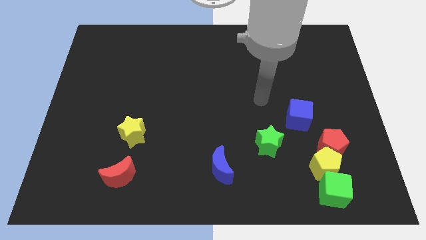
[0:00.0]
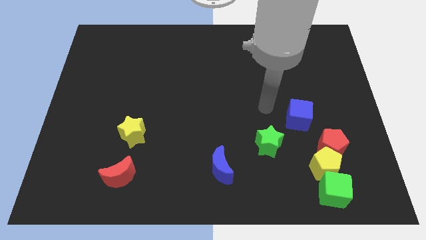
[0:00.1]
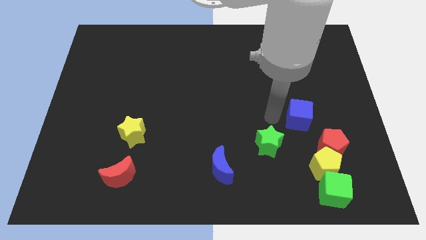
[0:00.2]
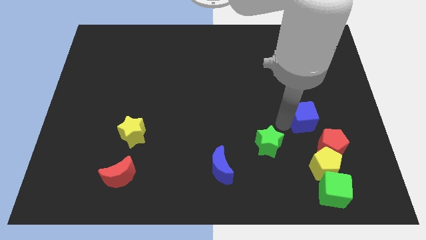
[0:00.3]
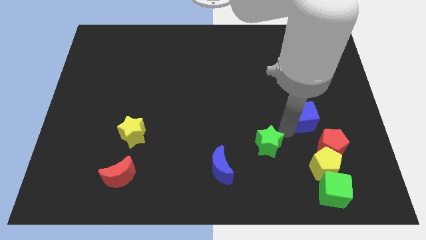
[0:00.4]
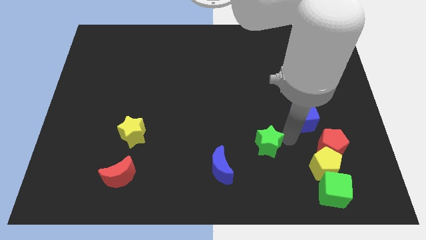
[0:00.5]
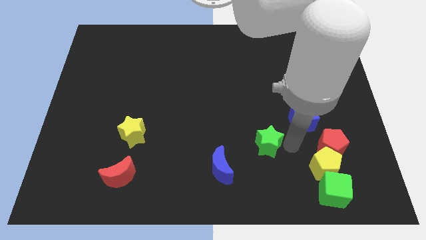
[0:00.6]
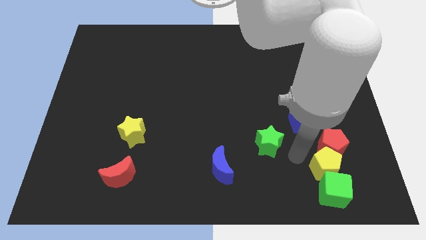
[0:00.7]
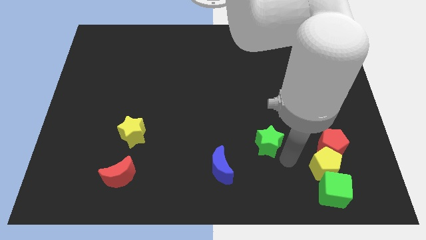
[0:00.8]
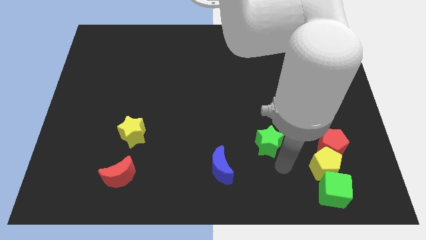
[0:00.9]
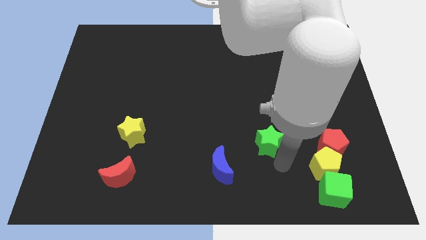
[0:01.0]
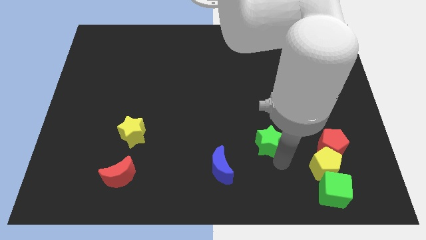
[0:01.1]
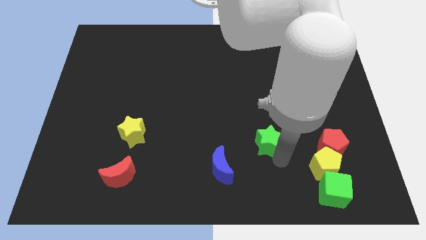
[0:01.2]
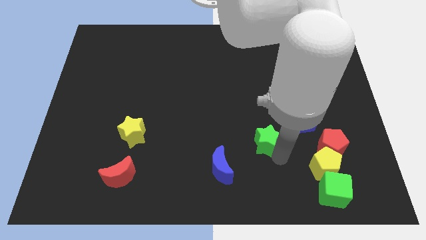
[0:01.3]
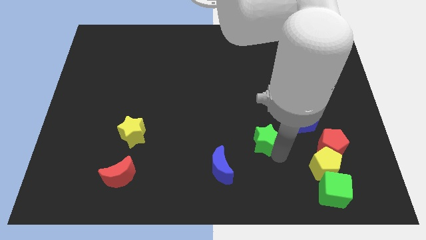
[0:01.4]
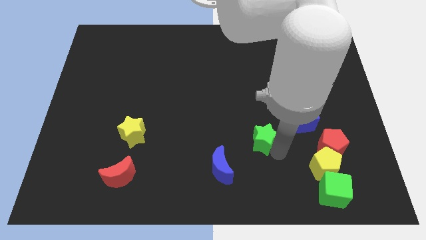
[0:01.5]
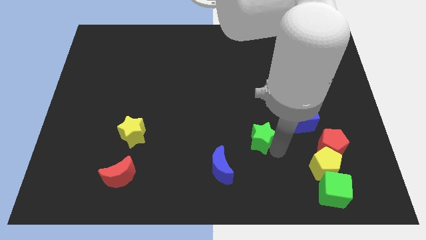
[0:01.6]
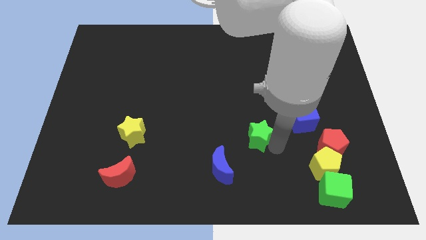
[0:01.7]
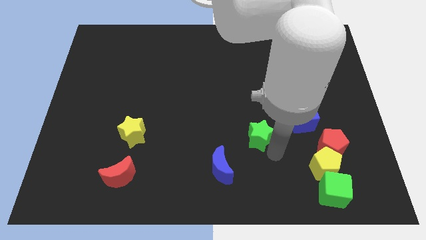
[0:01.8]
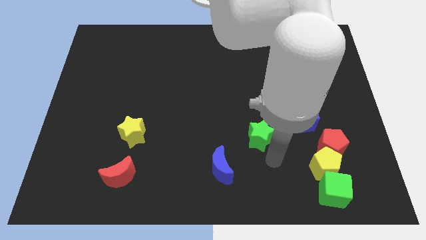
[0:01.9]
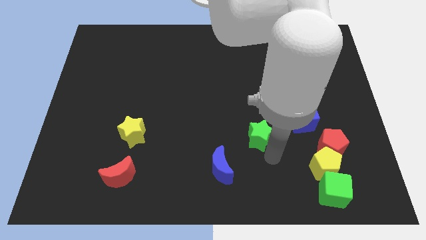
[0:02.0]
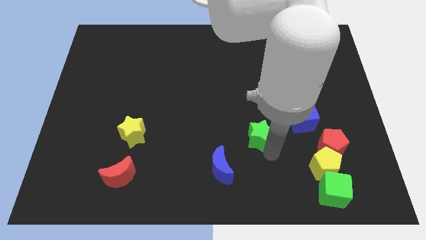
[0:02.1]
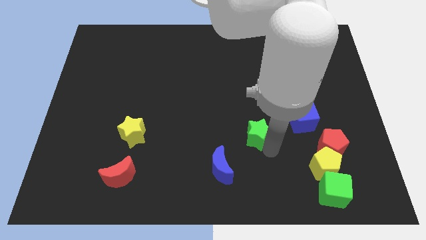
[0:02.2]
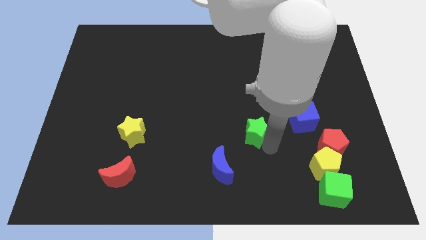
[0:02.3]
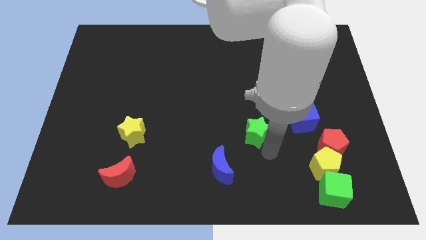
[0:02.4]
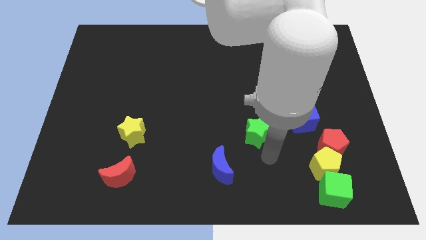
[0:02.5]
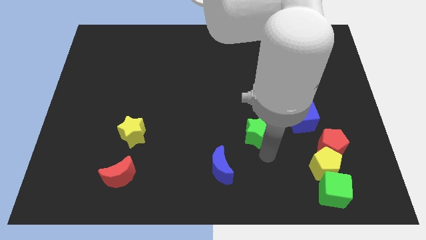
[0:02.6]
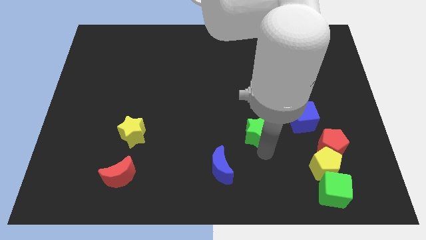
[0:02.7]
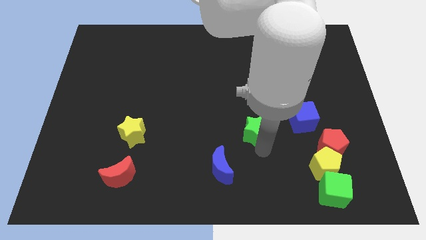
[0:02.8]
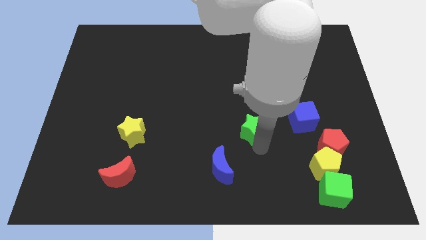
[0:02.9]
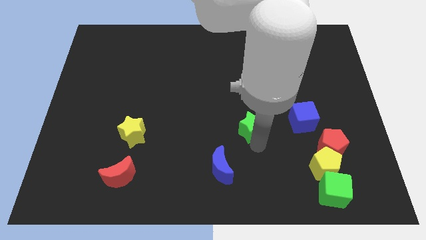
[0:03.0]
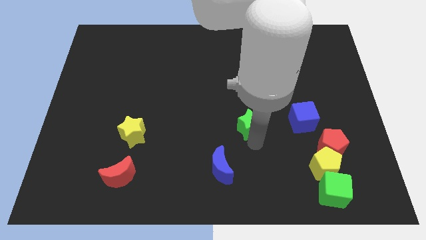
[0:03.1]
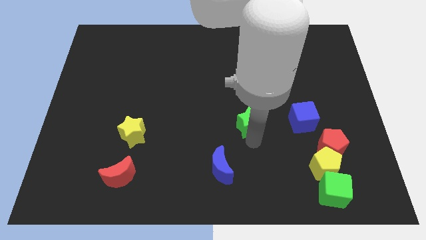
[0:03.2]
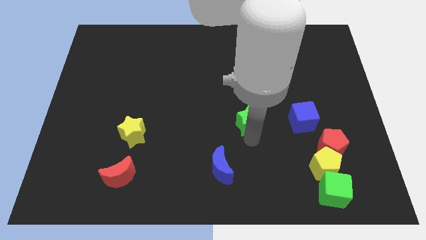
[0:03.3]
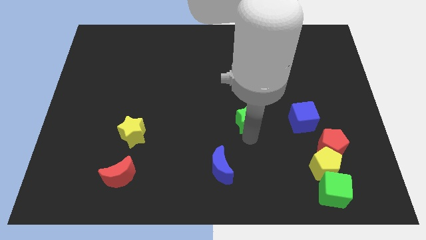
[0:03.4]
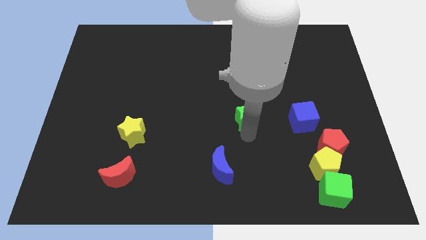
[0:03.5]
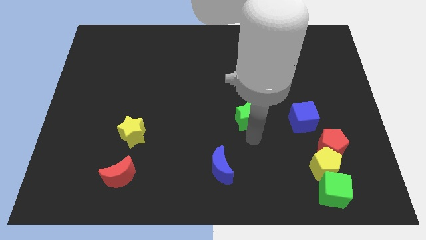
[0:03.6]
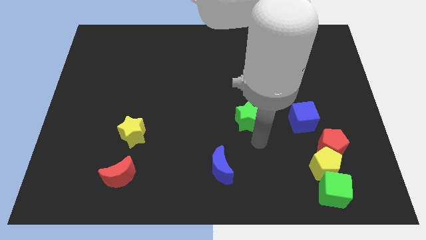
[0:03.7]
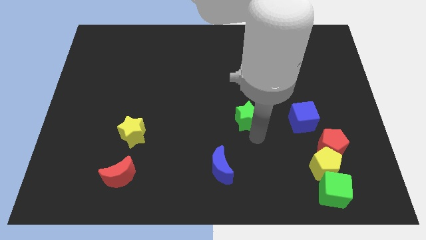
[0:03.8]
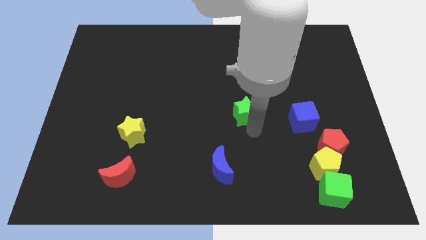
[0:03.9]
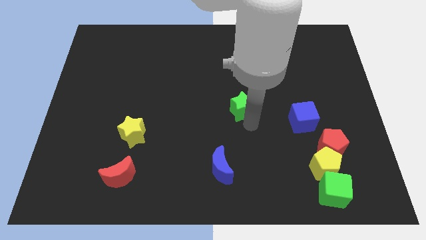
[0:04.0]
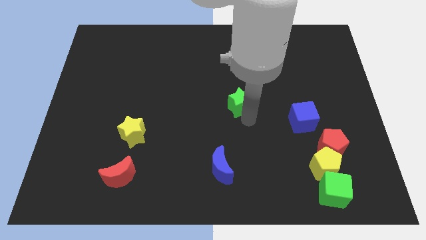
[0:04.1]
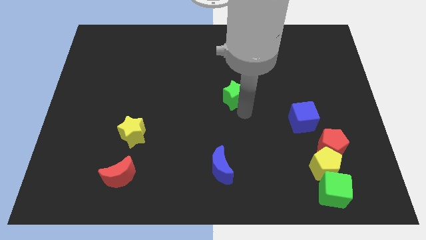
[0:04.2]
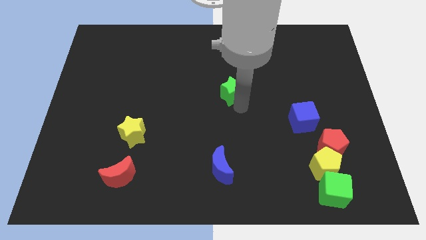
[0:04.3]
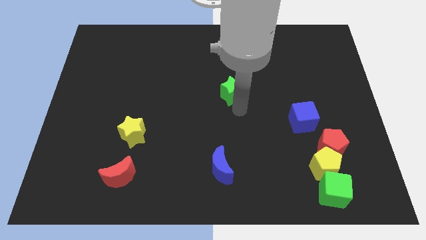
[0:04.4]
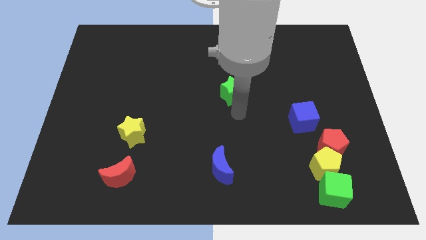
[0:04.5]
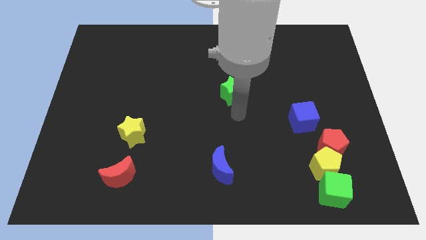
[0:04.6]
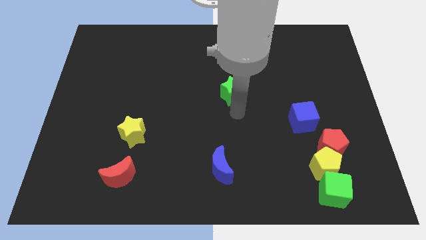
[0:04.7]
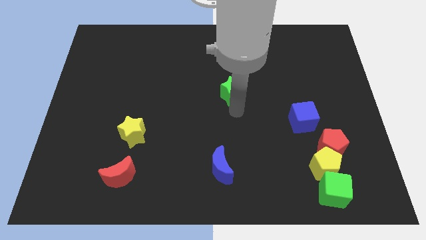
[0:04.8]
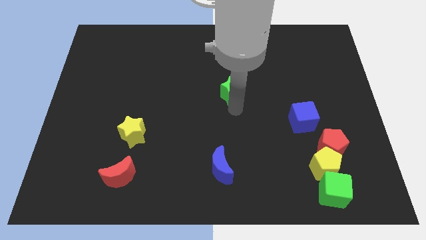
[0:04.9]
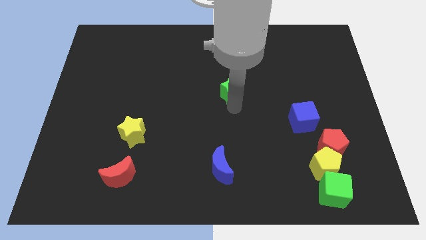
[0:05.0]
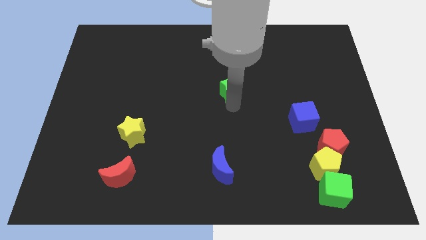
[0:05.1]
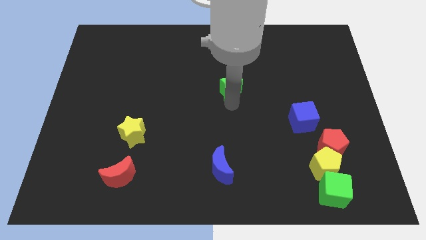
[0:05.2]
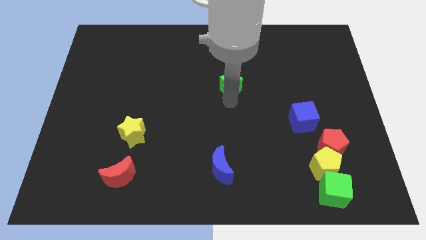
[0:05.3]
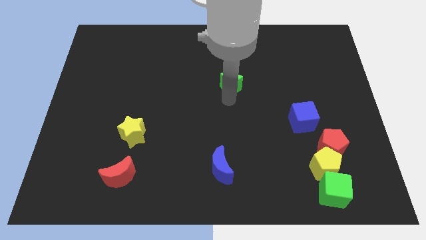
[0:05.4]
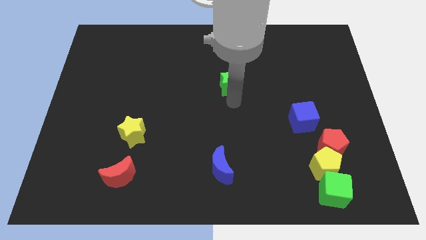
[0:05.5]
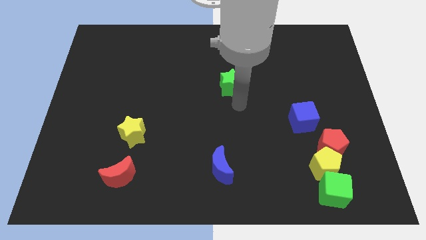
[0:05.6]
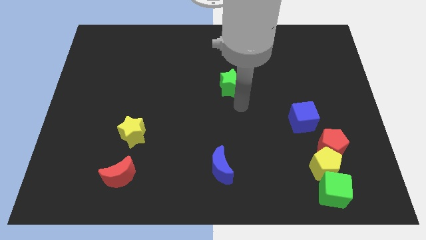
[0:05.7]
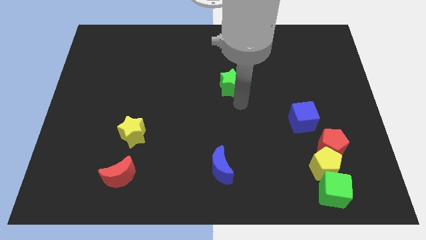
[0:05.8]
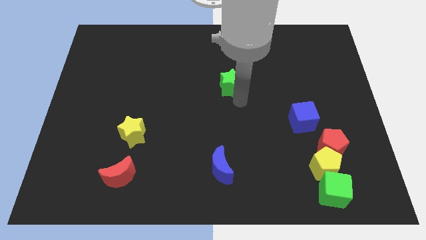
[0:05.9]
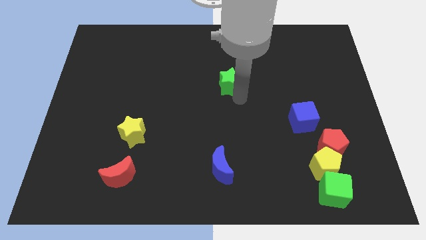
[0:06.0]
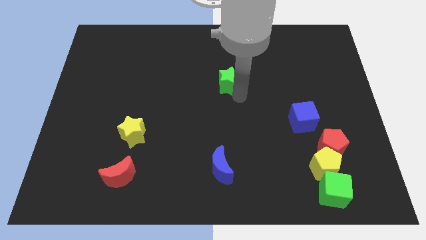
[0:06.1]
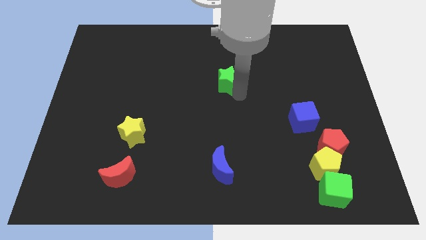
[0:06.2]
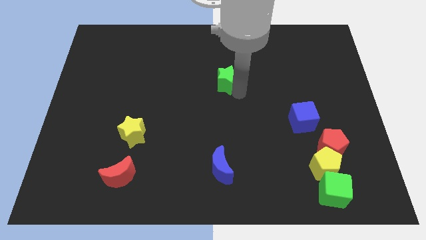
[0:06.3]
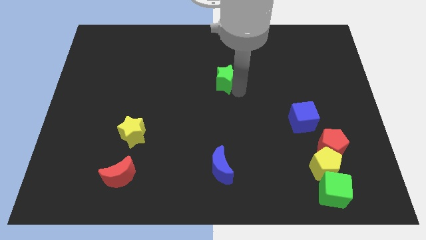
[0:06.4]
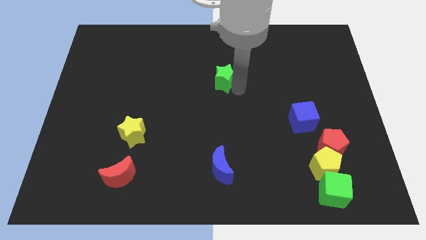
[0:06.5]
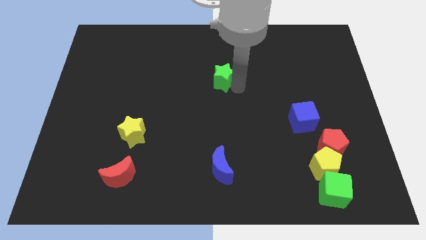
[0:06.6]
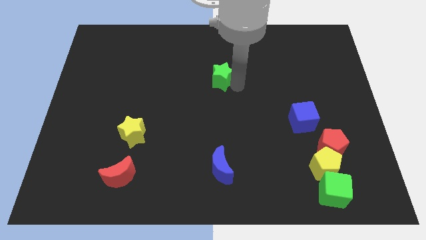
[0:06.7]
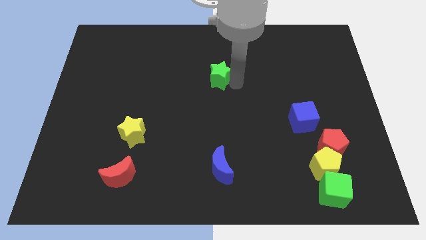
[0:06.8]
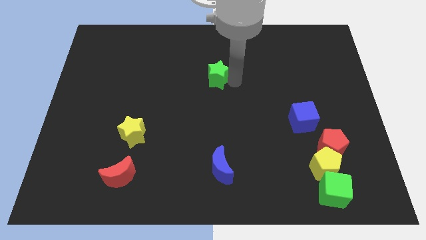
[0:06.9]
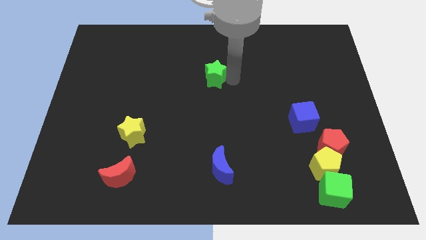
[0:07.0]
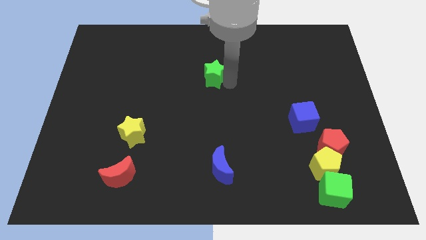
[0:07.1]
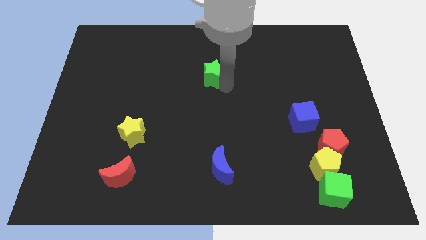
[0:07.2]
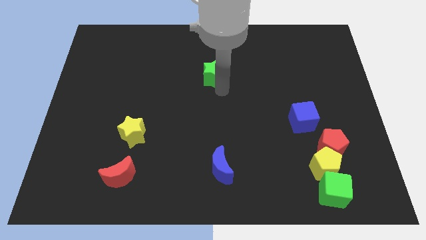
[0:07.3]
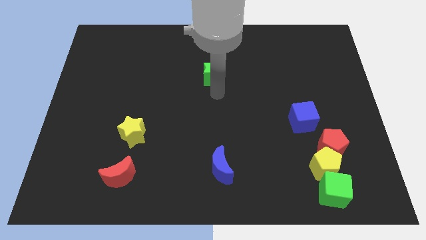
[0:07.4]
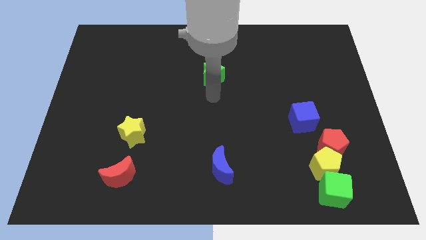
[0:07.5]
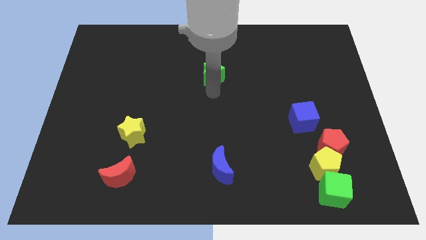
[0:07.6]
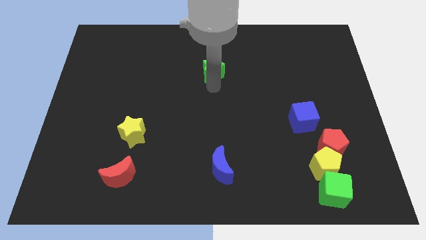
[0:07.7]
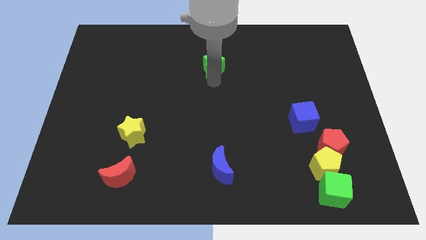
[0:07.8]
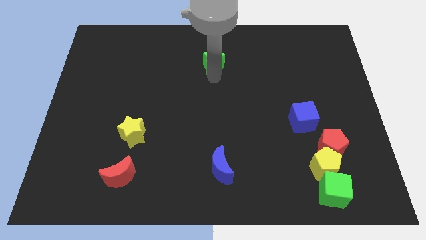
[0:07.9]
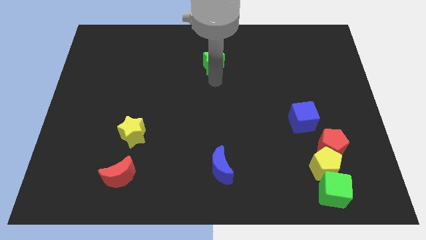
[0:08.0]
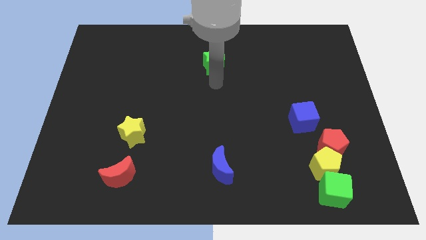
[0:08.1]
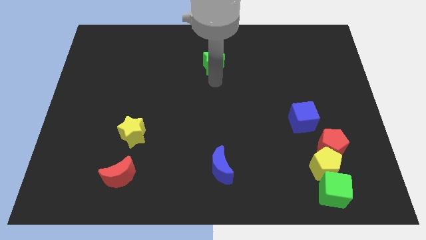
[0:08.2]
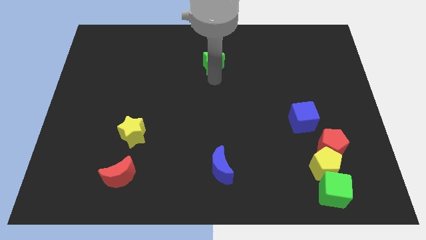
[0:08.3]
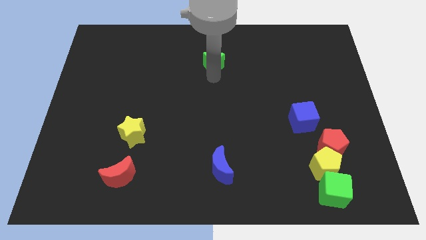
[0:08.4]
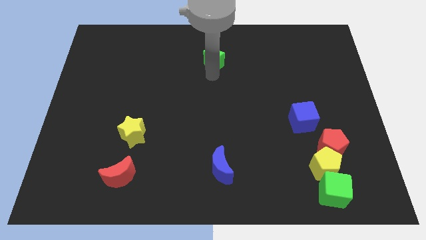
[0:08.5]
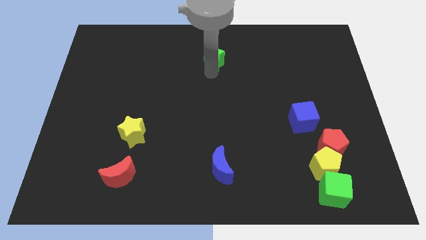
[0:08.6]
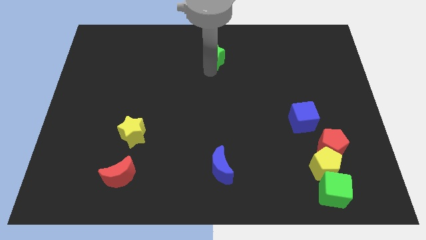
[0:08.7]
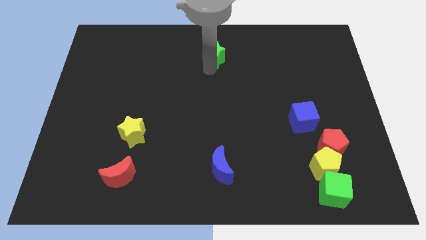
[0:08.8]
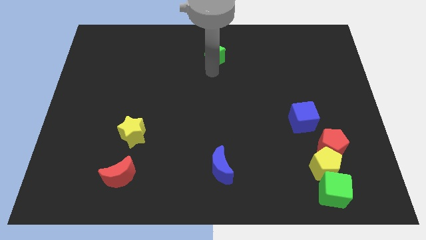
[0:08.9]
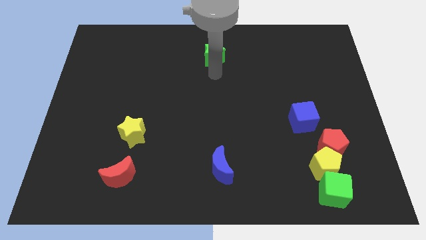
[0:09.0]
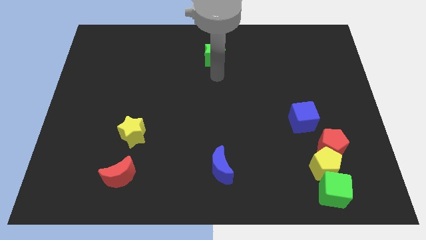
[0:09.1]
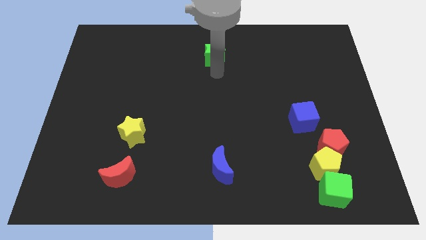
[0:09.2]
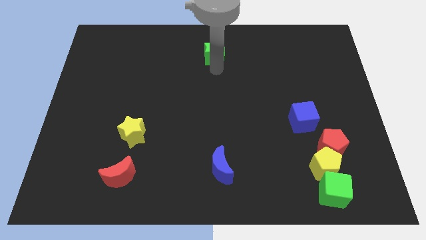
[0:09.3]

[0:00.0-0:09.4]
push the green star to the top side
